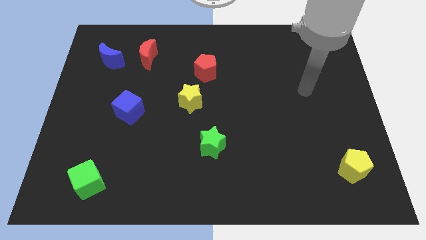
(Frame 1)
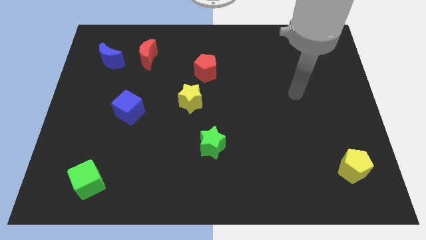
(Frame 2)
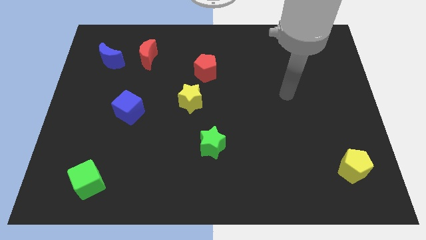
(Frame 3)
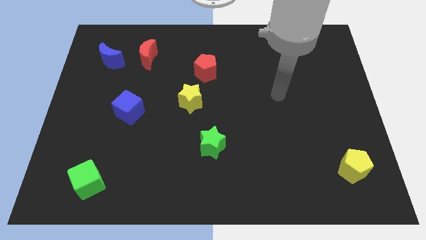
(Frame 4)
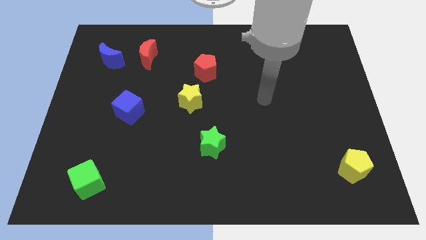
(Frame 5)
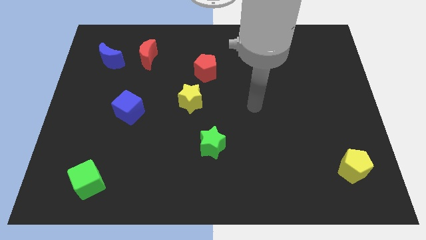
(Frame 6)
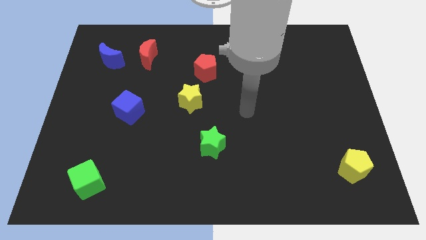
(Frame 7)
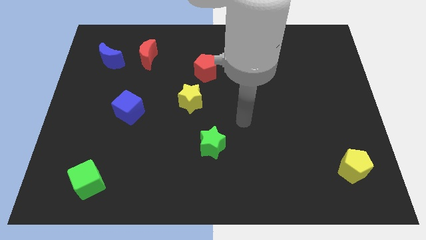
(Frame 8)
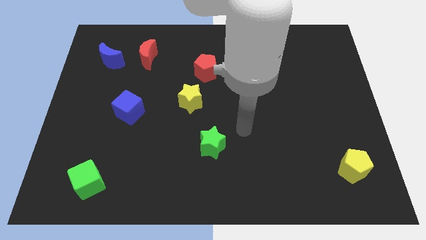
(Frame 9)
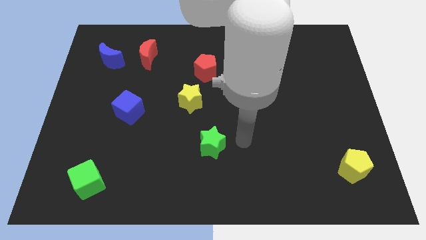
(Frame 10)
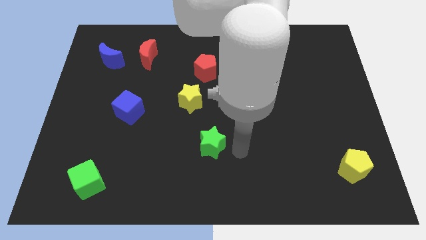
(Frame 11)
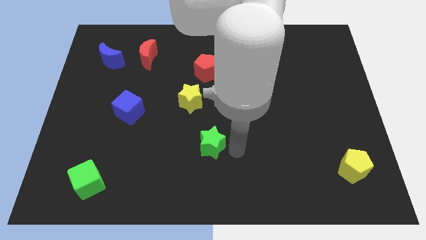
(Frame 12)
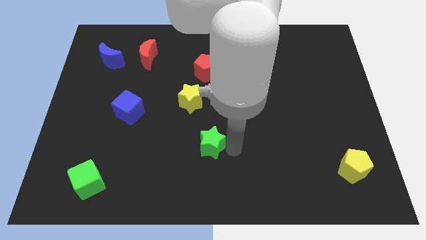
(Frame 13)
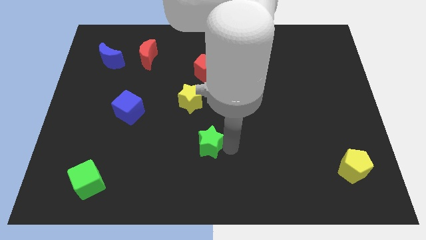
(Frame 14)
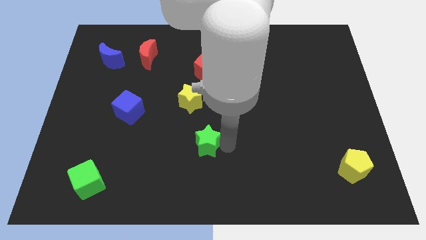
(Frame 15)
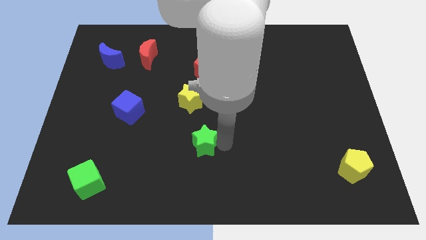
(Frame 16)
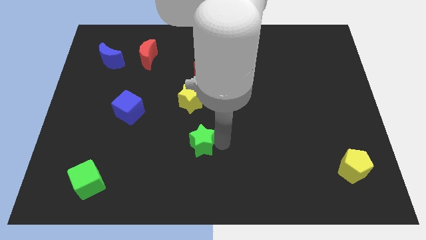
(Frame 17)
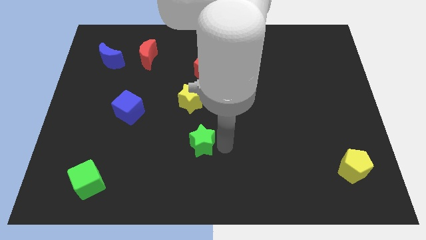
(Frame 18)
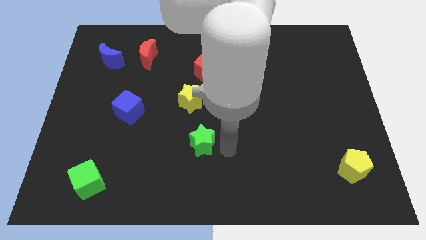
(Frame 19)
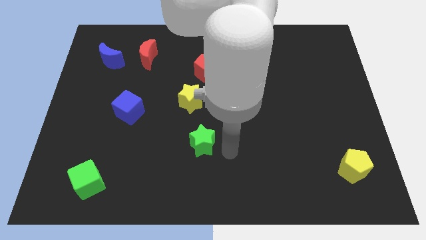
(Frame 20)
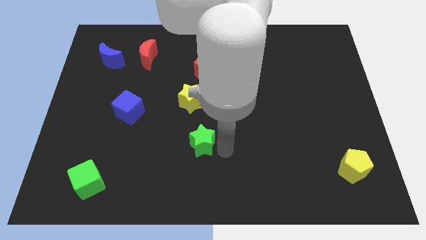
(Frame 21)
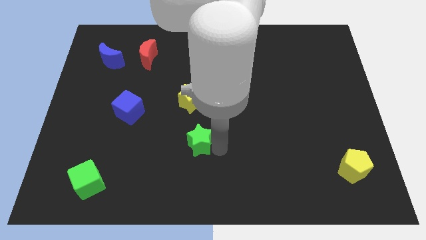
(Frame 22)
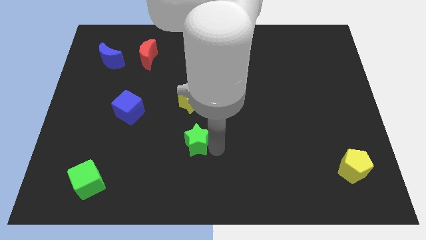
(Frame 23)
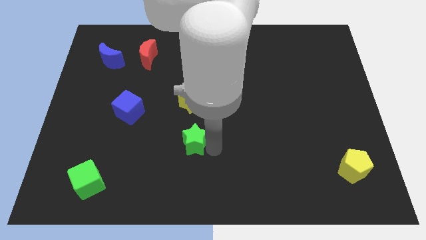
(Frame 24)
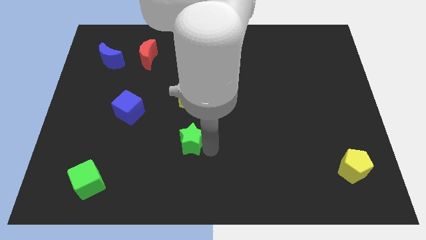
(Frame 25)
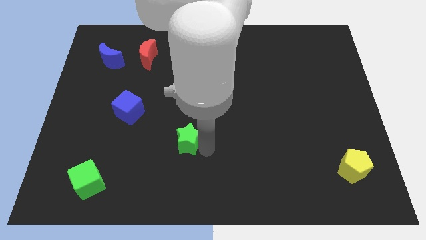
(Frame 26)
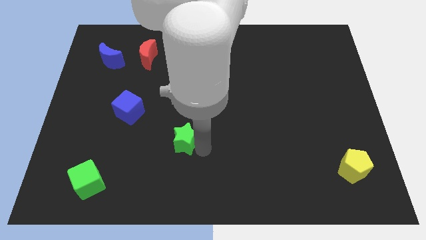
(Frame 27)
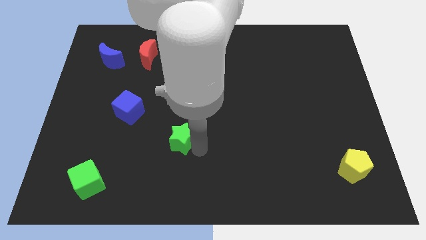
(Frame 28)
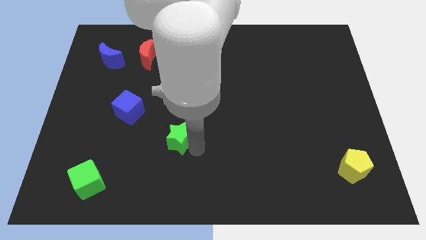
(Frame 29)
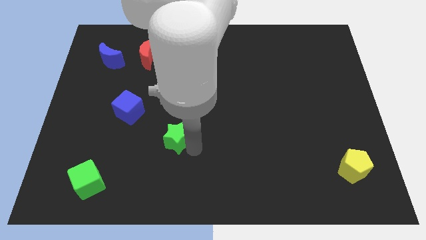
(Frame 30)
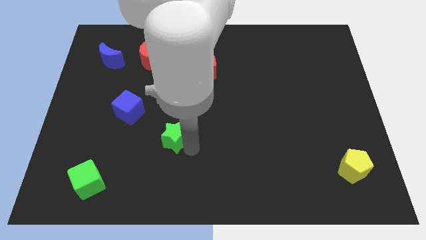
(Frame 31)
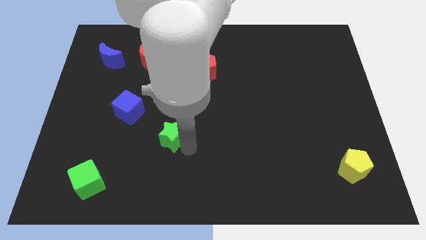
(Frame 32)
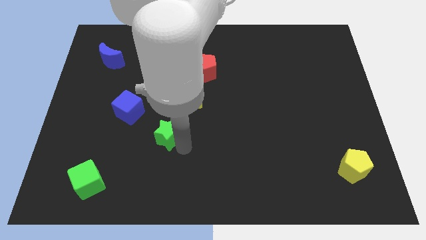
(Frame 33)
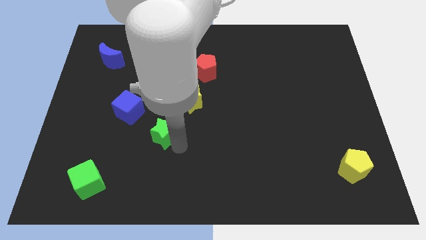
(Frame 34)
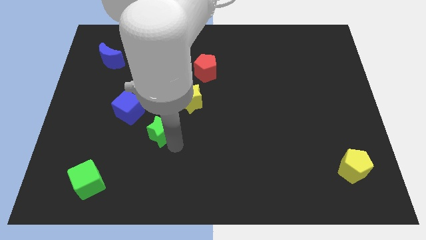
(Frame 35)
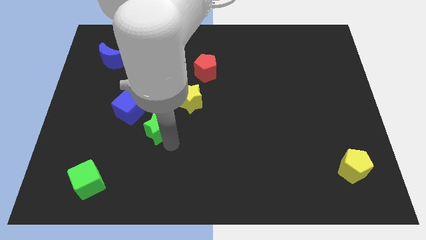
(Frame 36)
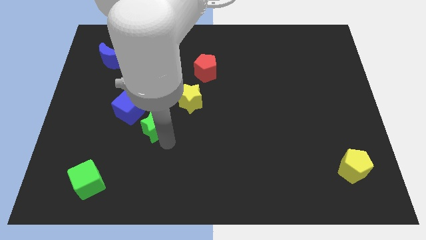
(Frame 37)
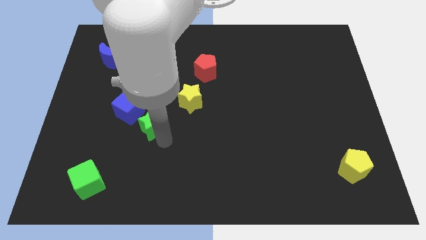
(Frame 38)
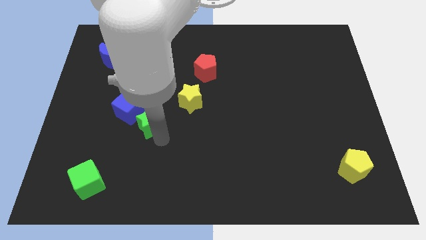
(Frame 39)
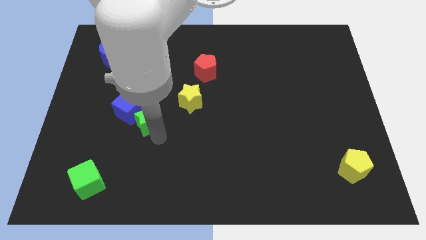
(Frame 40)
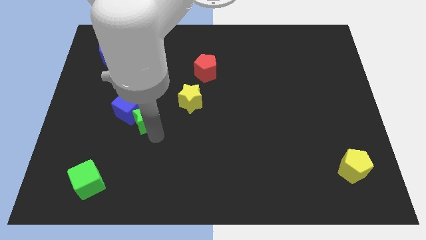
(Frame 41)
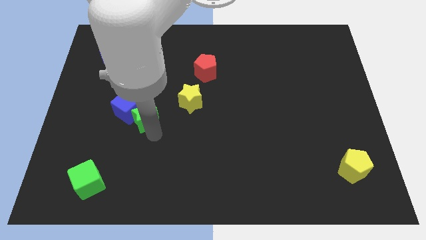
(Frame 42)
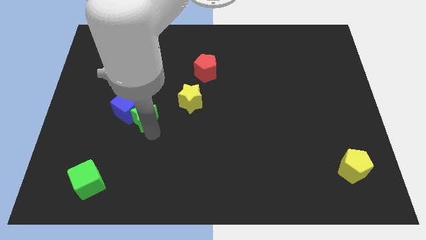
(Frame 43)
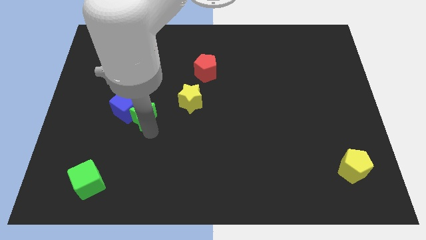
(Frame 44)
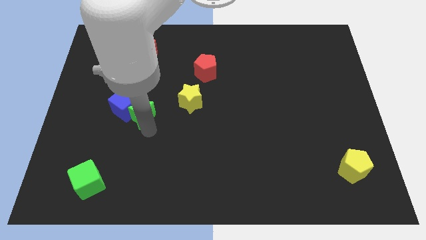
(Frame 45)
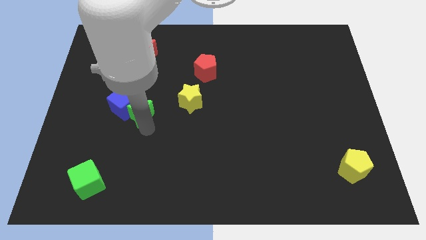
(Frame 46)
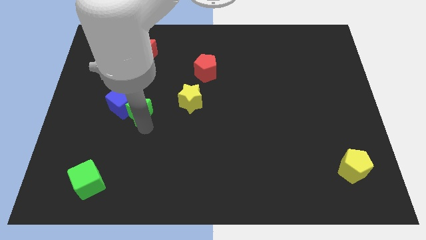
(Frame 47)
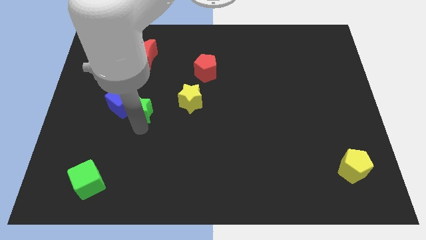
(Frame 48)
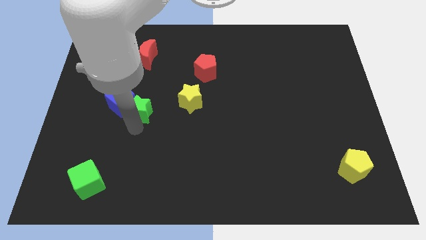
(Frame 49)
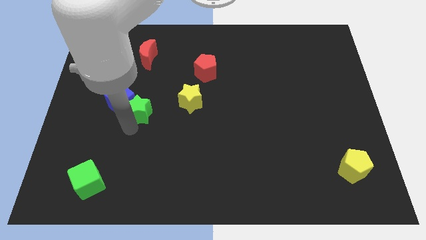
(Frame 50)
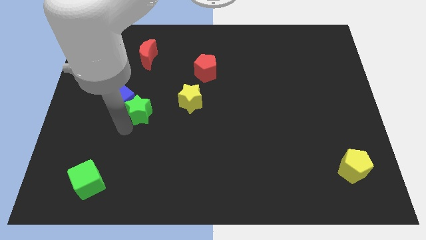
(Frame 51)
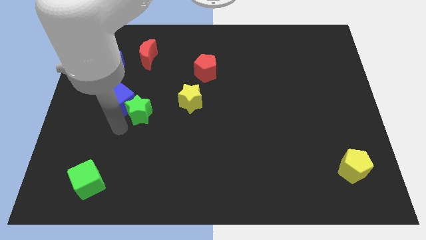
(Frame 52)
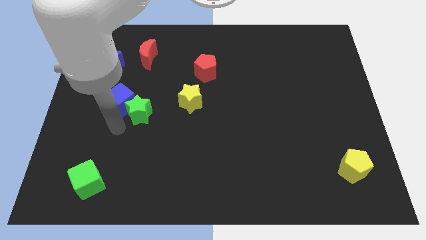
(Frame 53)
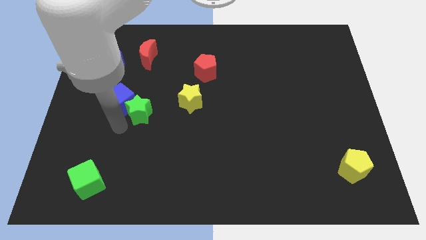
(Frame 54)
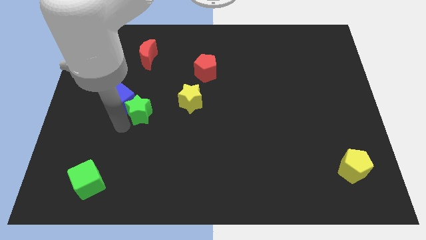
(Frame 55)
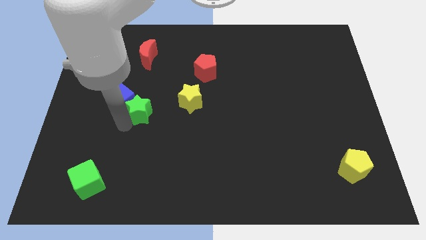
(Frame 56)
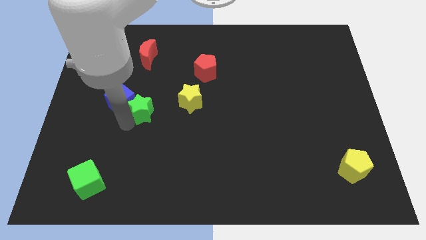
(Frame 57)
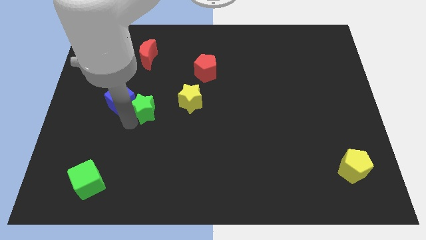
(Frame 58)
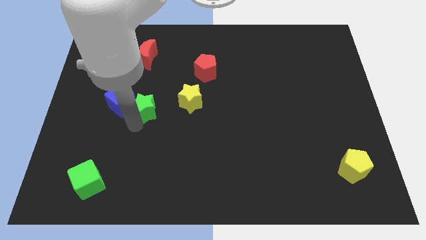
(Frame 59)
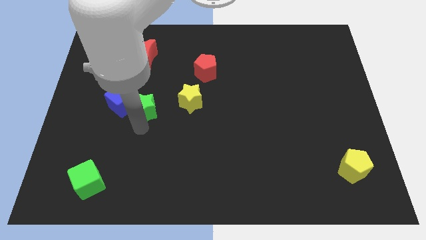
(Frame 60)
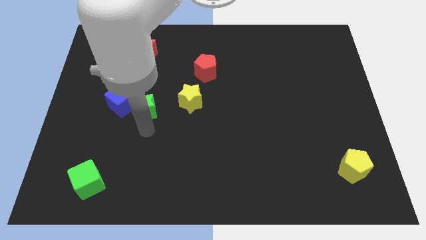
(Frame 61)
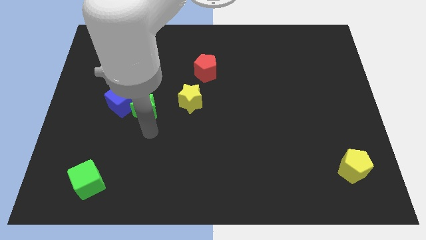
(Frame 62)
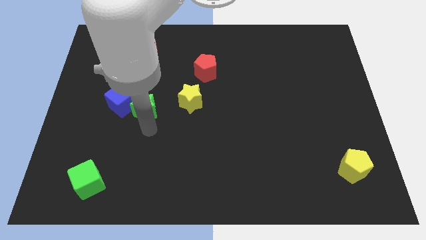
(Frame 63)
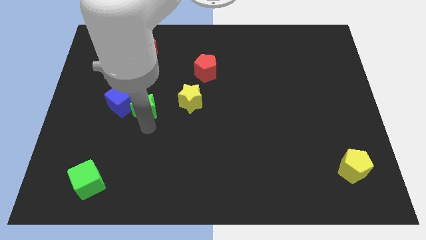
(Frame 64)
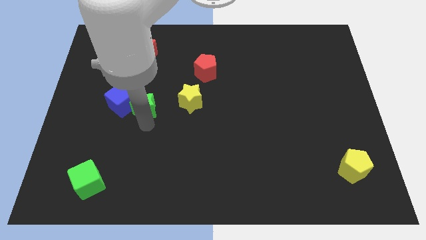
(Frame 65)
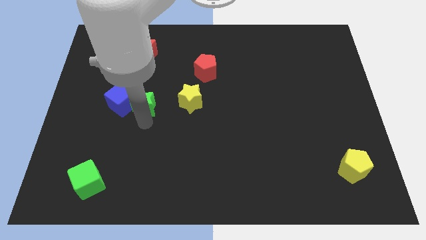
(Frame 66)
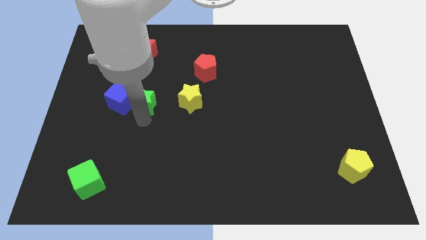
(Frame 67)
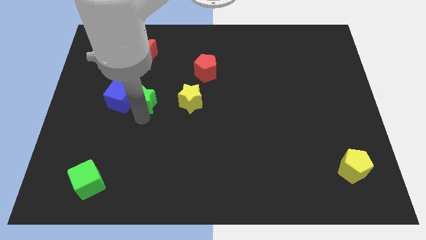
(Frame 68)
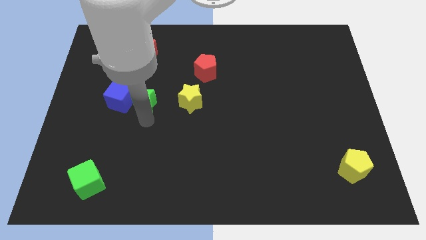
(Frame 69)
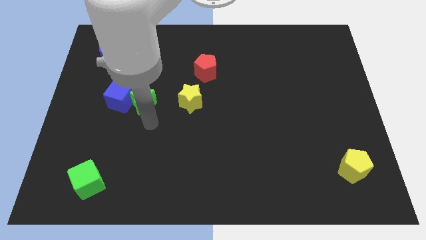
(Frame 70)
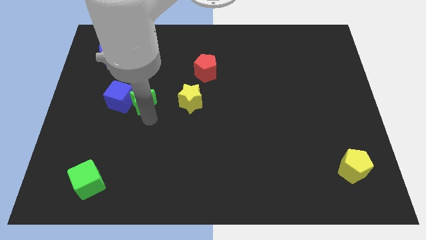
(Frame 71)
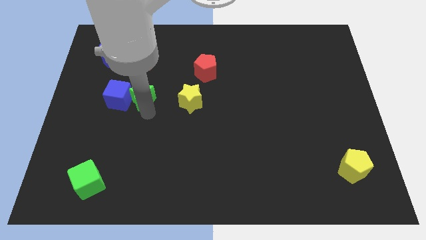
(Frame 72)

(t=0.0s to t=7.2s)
slide the green star upwards and to the left

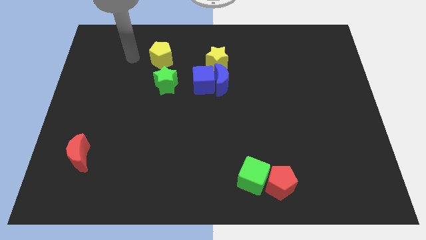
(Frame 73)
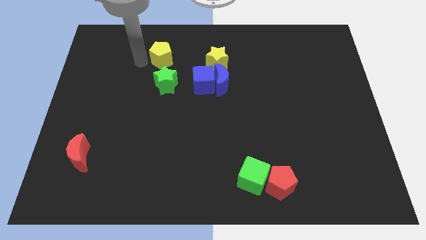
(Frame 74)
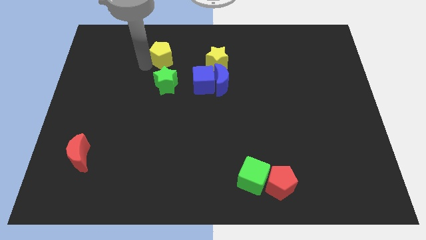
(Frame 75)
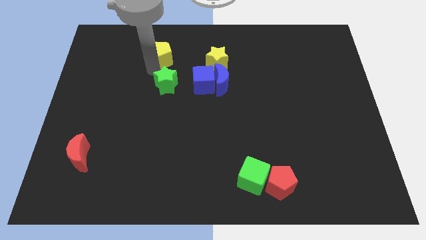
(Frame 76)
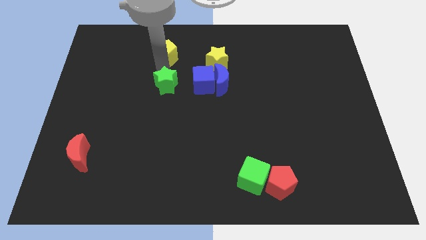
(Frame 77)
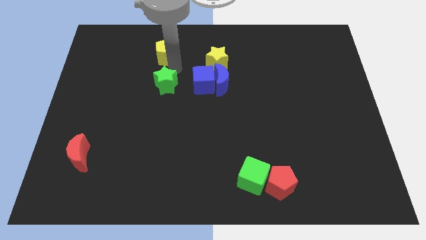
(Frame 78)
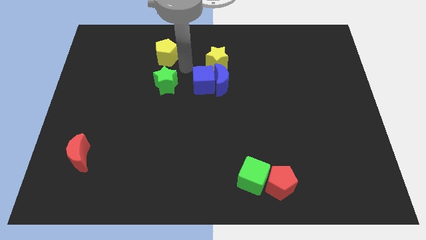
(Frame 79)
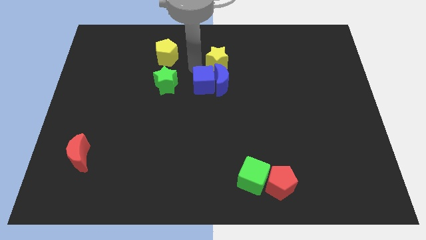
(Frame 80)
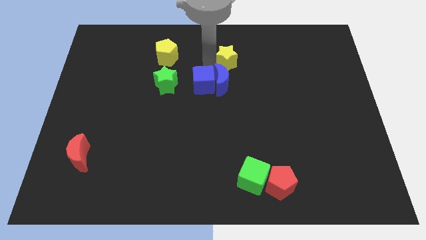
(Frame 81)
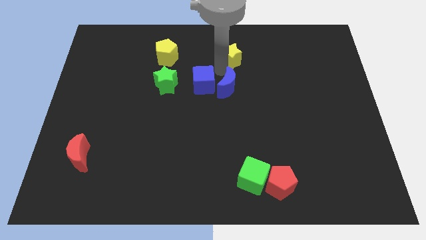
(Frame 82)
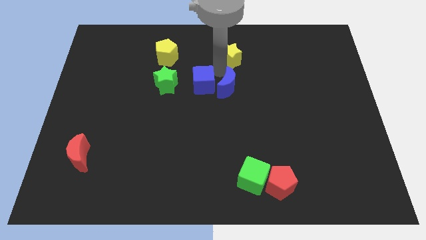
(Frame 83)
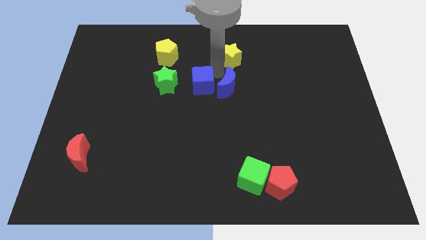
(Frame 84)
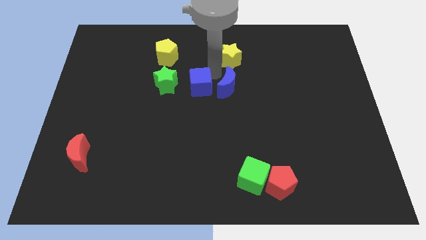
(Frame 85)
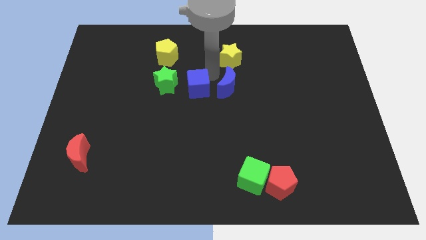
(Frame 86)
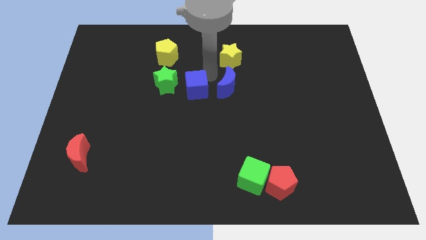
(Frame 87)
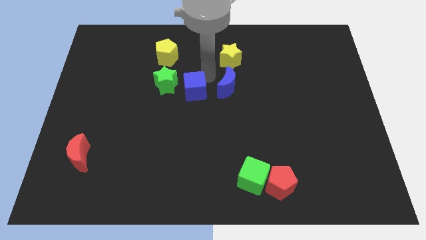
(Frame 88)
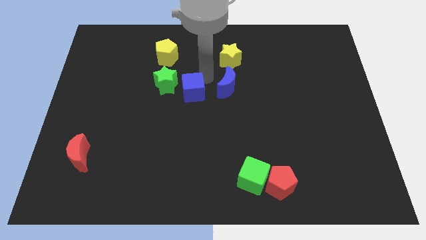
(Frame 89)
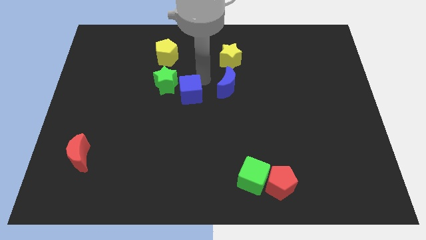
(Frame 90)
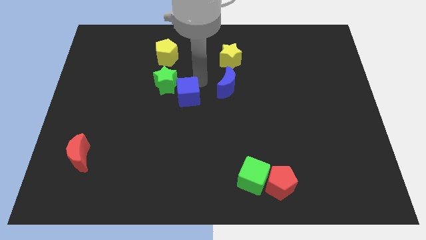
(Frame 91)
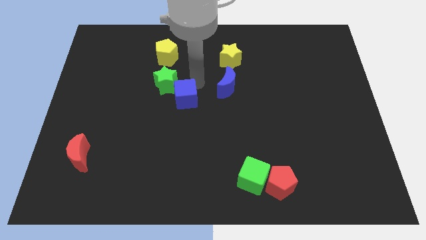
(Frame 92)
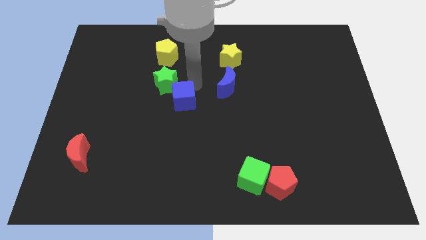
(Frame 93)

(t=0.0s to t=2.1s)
slightly move the blue cube down and to the left diagonally
